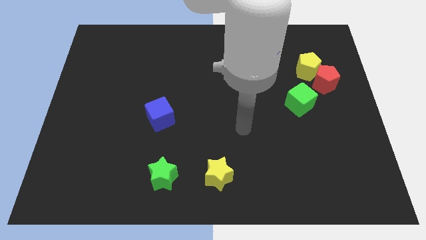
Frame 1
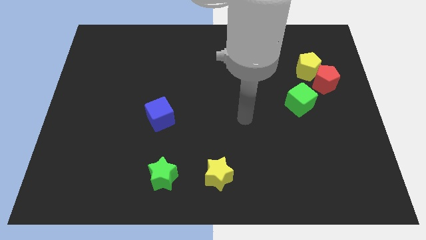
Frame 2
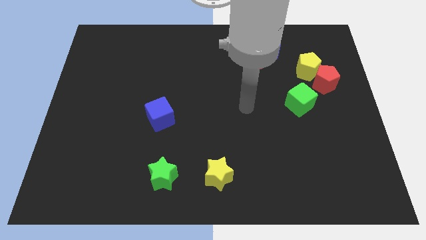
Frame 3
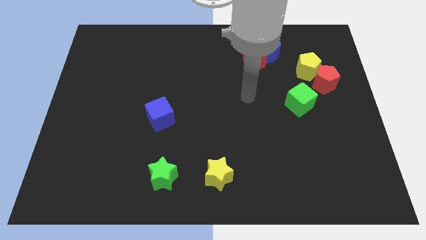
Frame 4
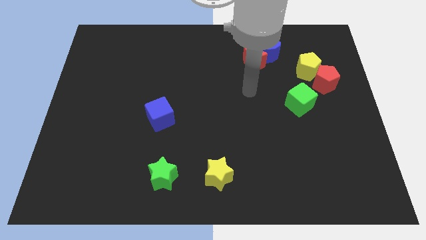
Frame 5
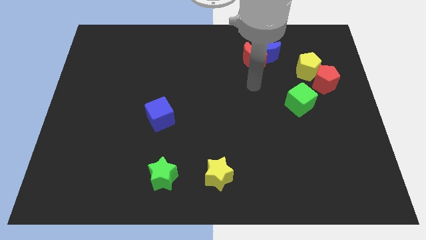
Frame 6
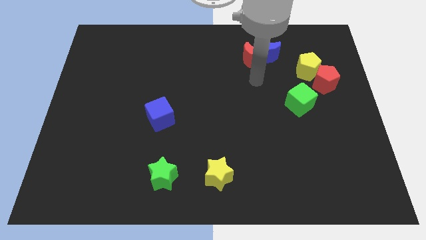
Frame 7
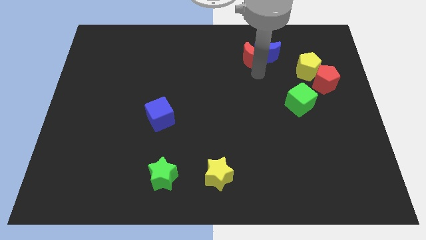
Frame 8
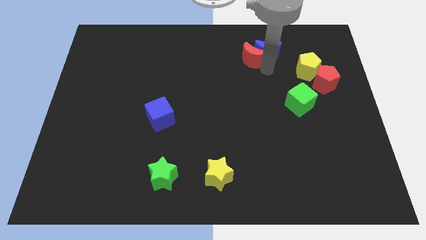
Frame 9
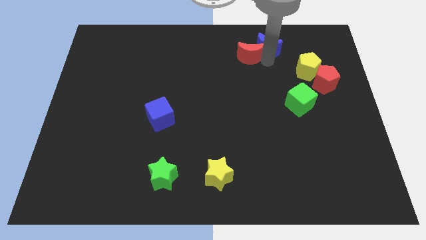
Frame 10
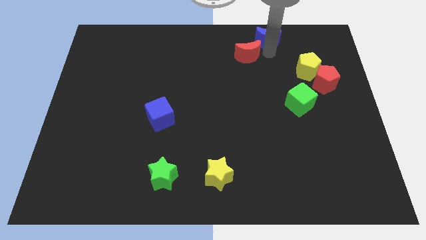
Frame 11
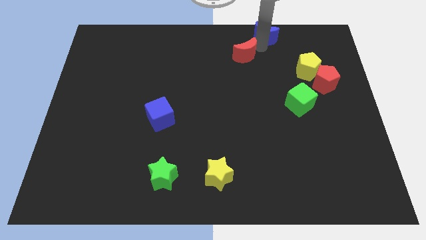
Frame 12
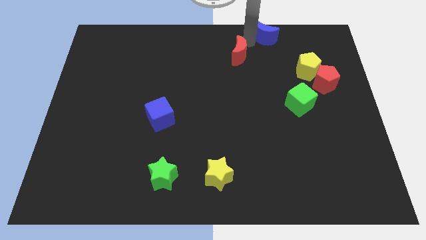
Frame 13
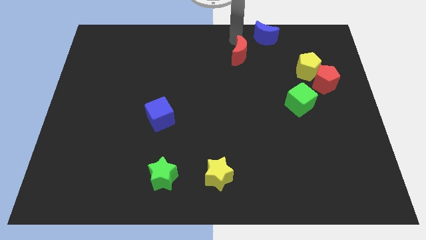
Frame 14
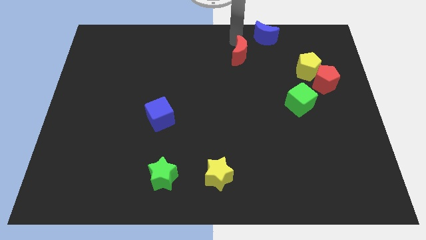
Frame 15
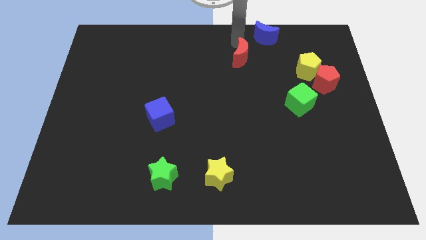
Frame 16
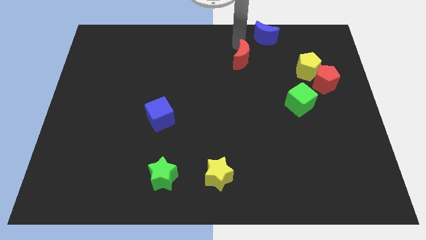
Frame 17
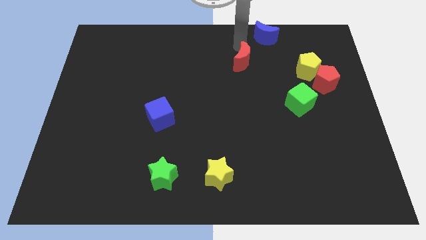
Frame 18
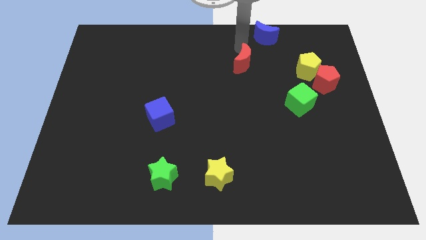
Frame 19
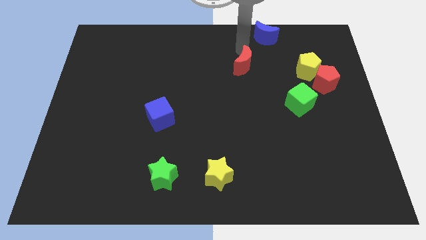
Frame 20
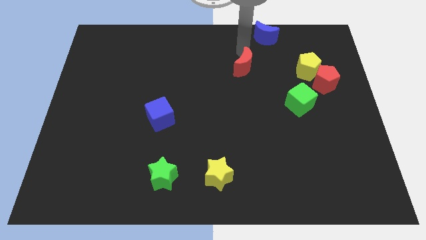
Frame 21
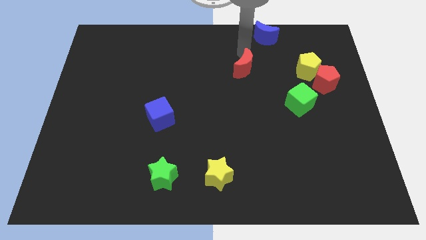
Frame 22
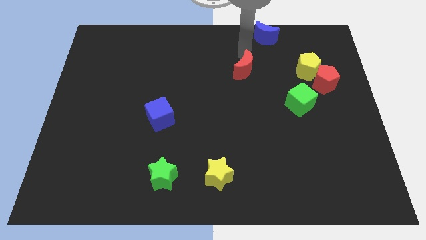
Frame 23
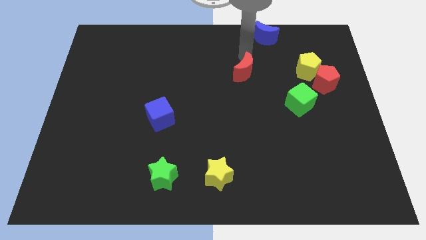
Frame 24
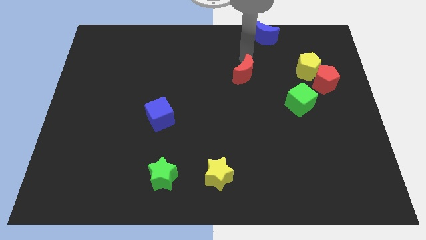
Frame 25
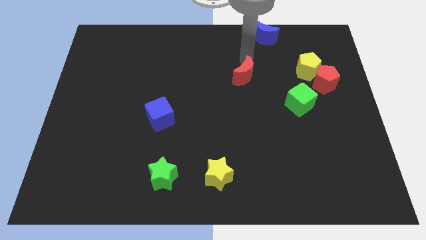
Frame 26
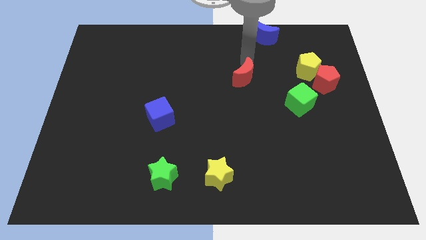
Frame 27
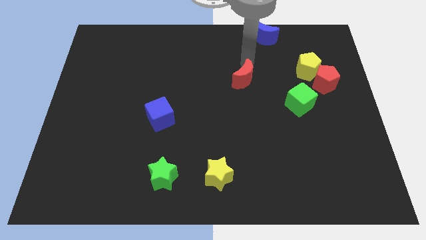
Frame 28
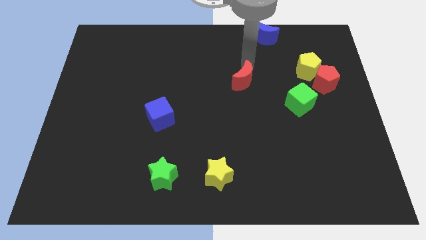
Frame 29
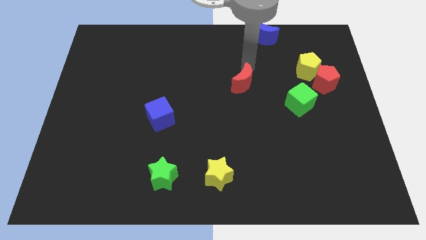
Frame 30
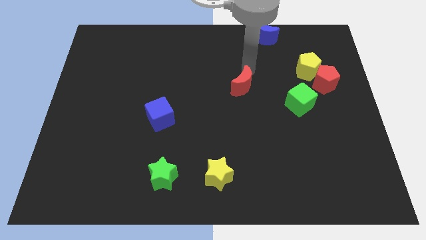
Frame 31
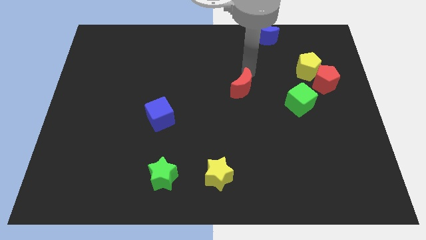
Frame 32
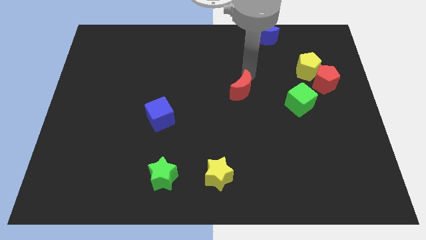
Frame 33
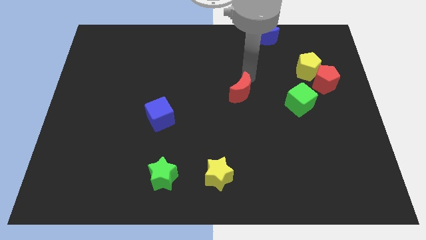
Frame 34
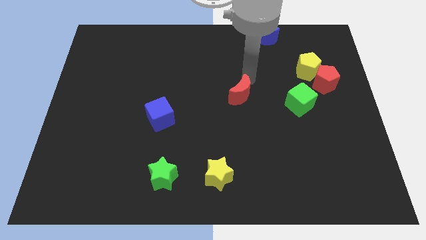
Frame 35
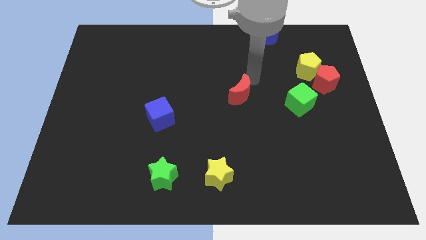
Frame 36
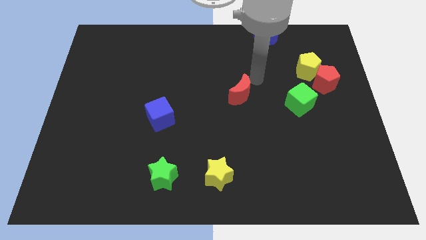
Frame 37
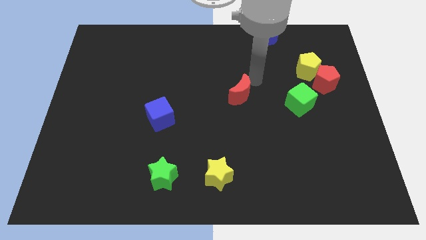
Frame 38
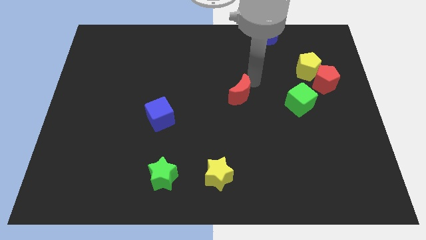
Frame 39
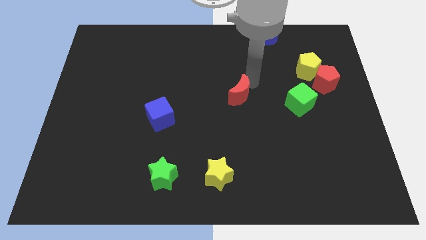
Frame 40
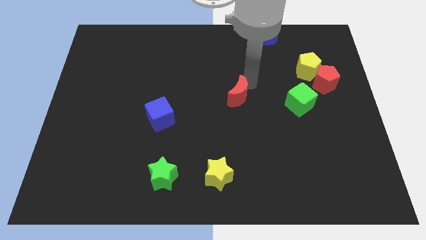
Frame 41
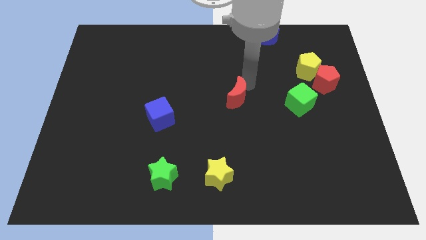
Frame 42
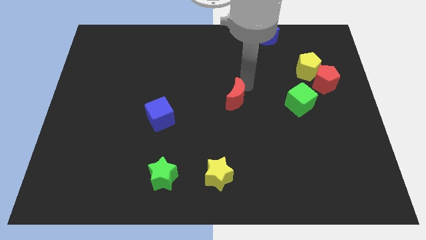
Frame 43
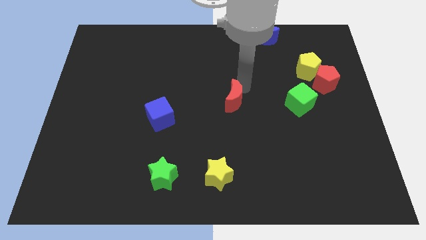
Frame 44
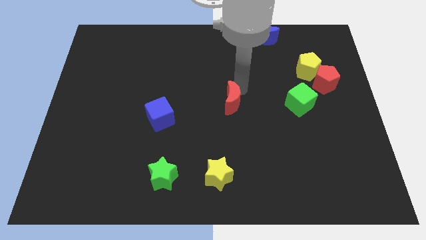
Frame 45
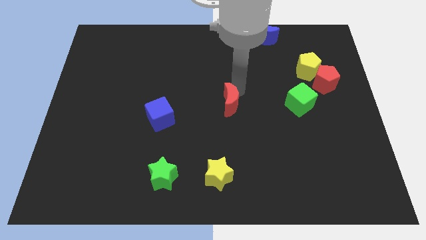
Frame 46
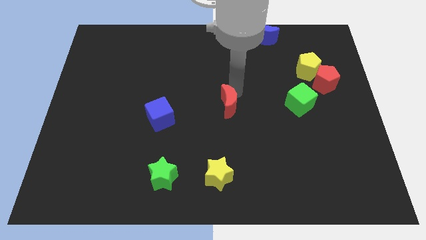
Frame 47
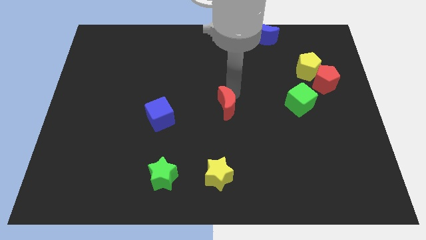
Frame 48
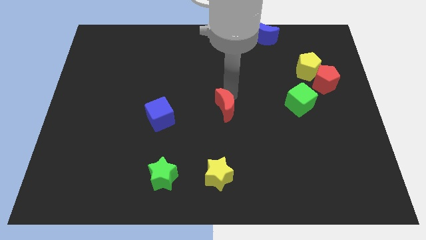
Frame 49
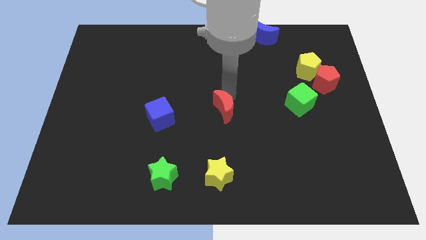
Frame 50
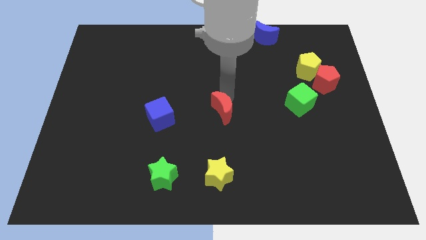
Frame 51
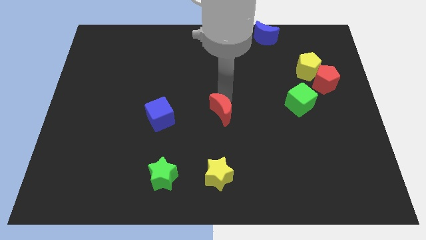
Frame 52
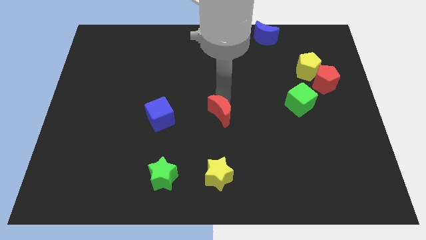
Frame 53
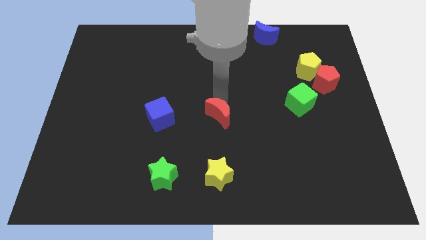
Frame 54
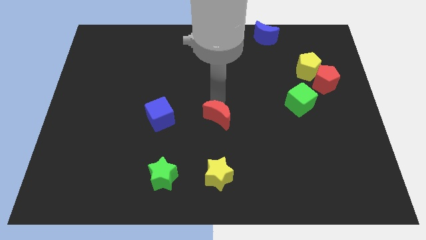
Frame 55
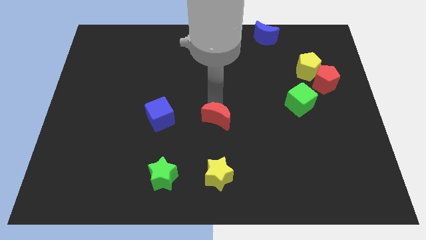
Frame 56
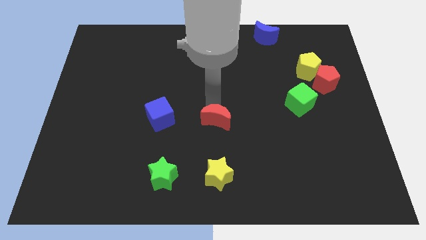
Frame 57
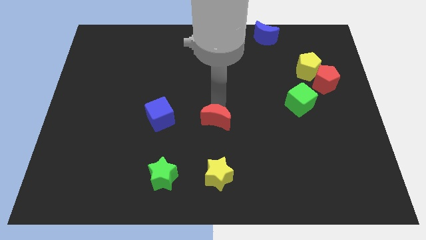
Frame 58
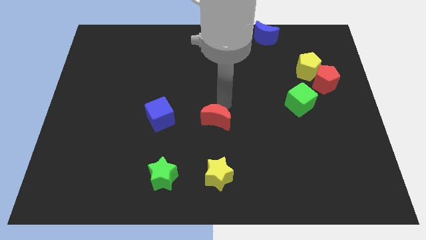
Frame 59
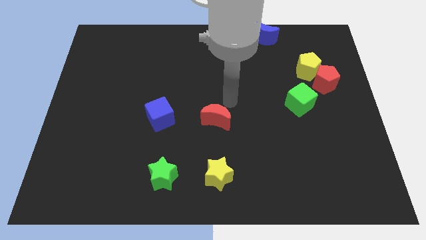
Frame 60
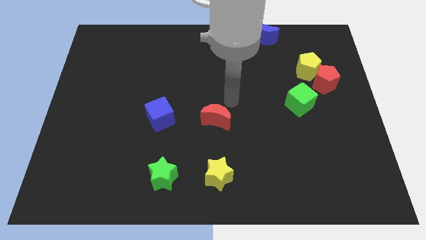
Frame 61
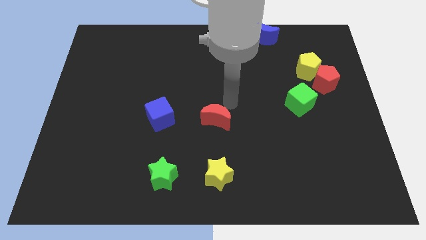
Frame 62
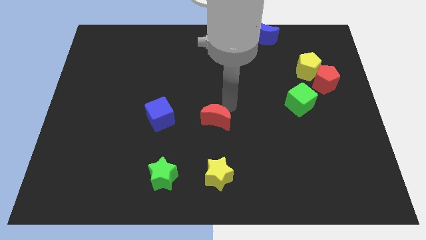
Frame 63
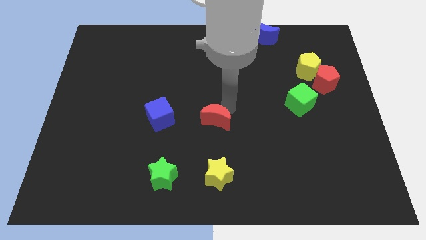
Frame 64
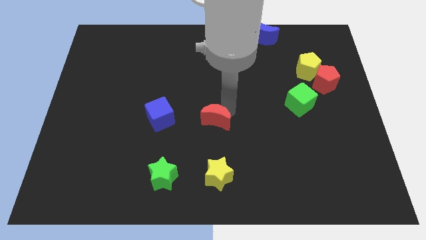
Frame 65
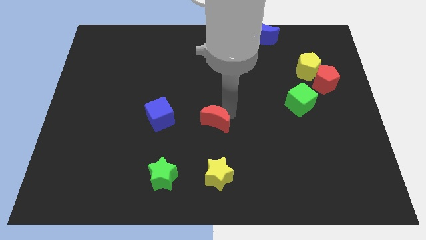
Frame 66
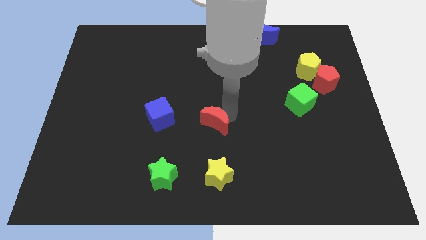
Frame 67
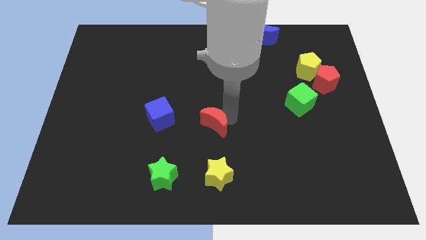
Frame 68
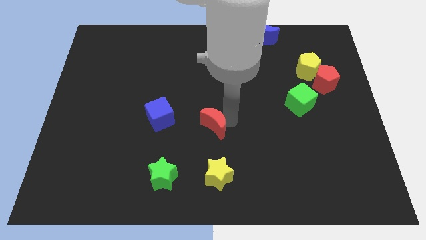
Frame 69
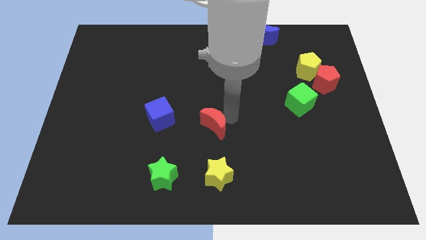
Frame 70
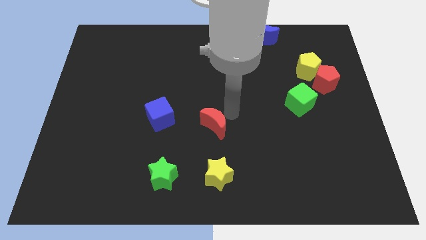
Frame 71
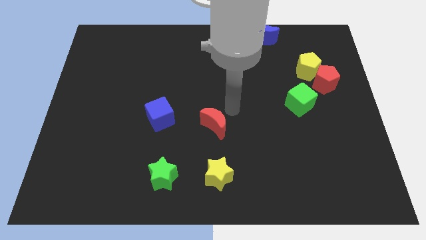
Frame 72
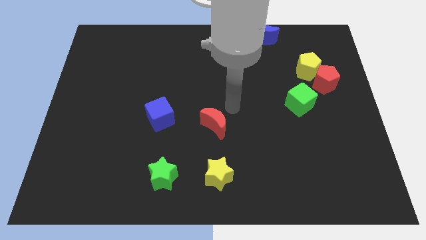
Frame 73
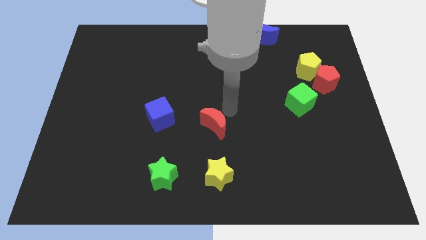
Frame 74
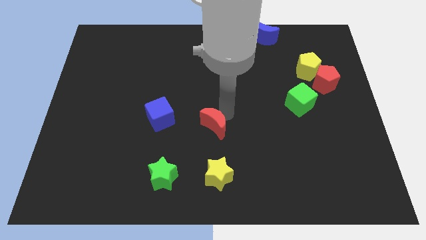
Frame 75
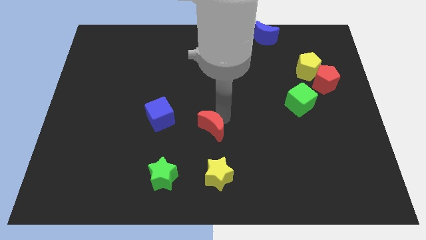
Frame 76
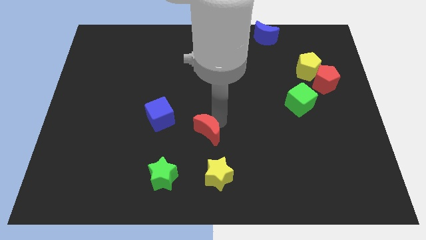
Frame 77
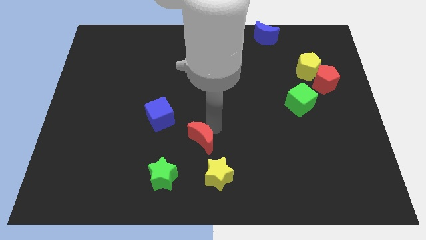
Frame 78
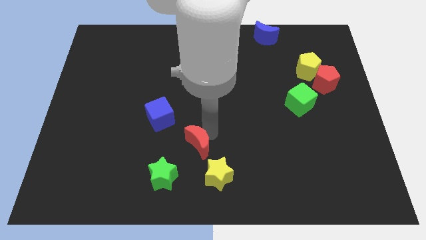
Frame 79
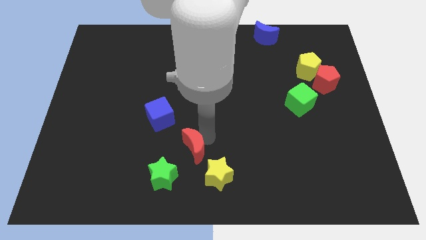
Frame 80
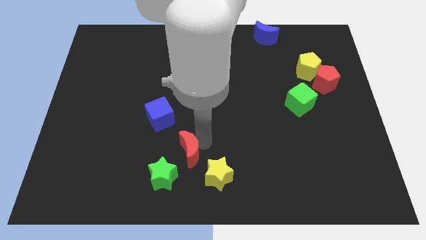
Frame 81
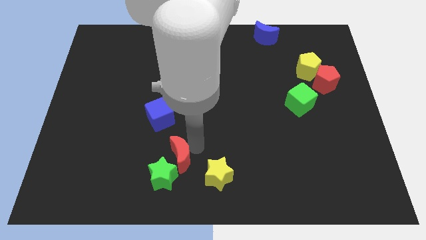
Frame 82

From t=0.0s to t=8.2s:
move the red moon close to the green star
